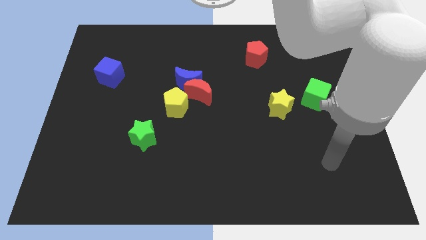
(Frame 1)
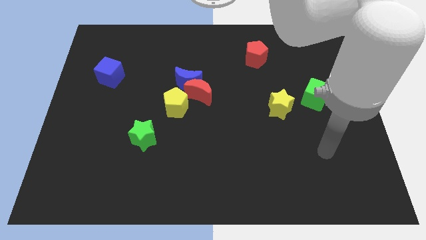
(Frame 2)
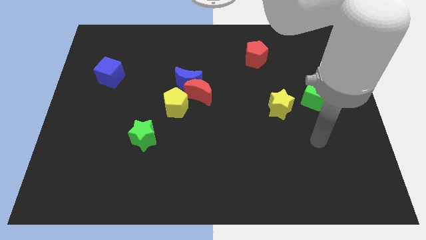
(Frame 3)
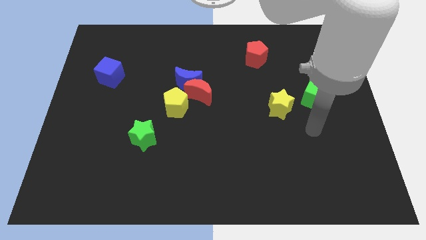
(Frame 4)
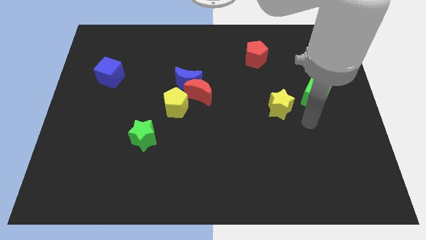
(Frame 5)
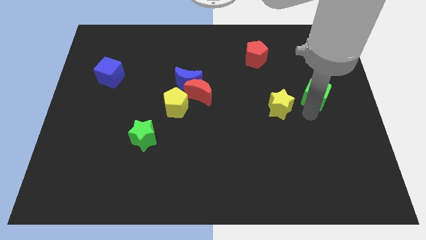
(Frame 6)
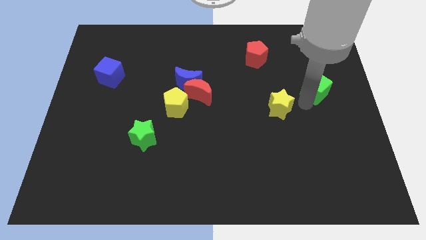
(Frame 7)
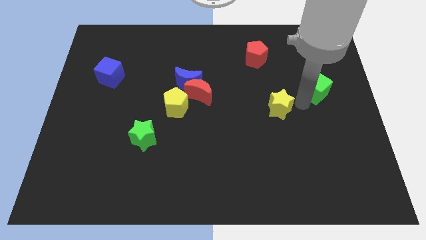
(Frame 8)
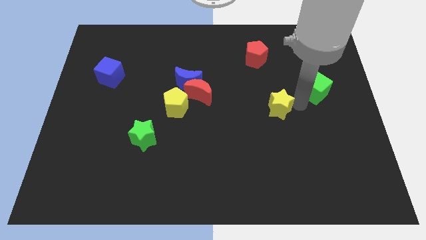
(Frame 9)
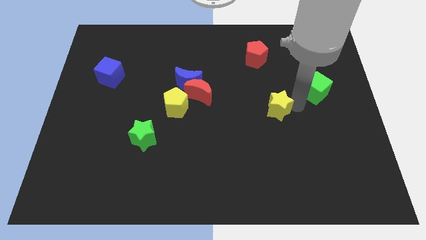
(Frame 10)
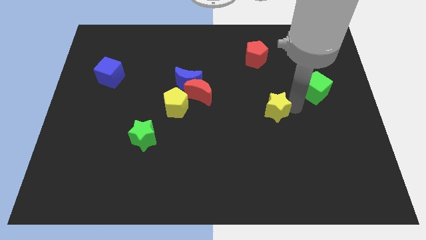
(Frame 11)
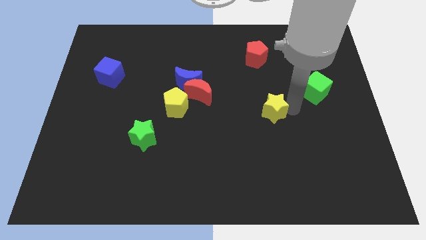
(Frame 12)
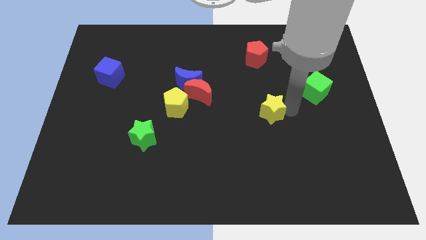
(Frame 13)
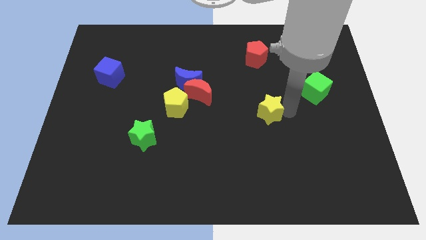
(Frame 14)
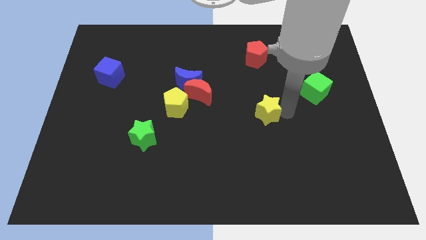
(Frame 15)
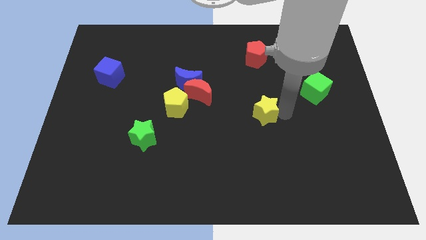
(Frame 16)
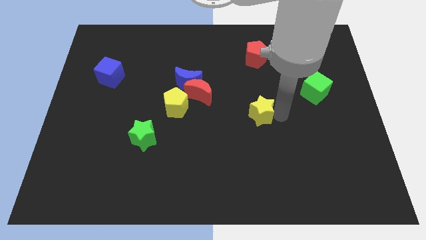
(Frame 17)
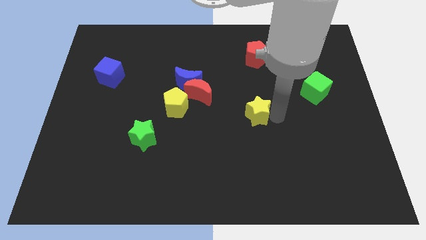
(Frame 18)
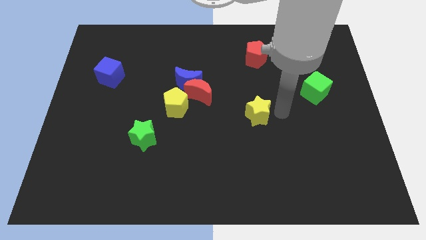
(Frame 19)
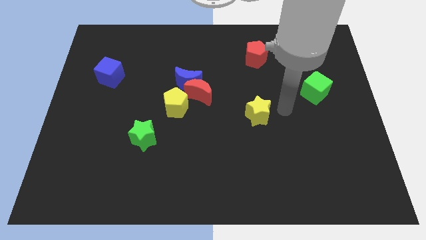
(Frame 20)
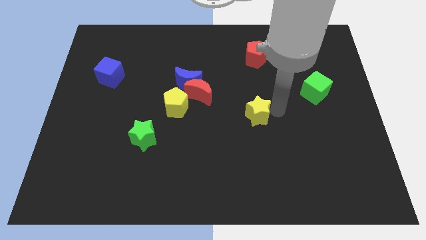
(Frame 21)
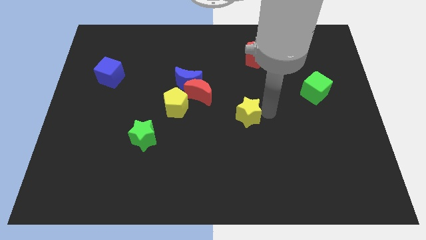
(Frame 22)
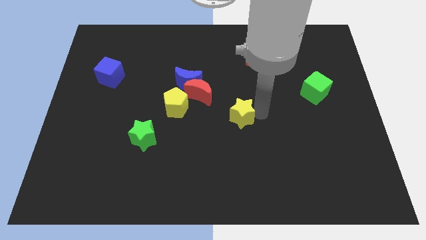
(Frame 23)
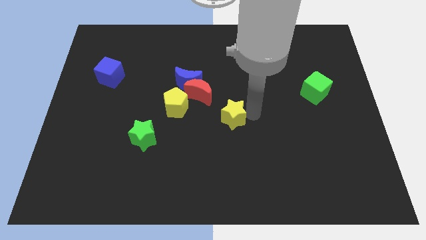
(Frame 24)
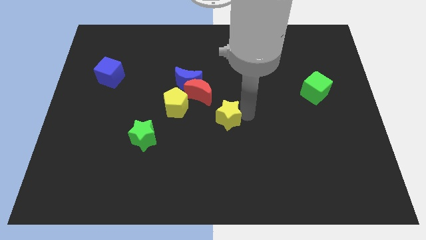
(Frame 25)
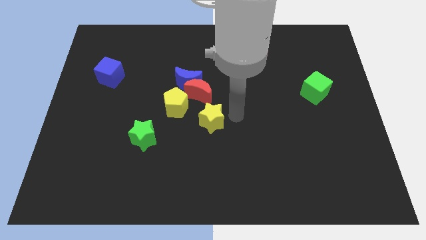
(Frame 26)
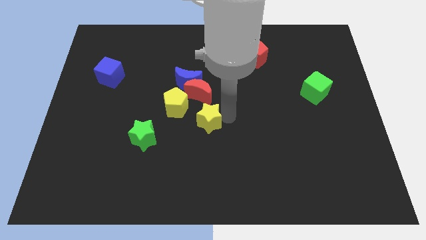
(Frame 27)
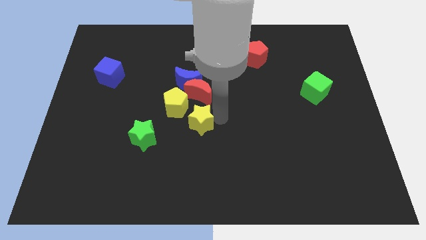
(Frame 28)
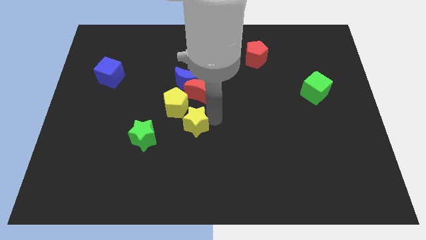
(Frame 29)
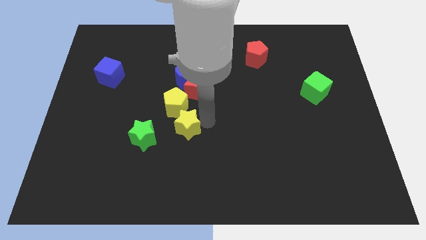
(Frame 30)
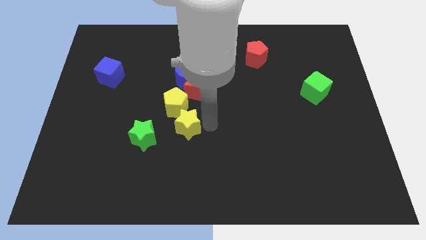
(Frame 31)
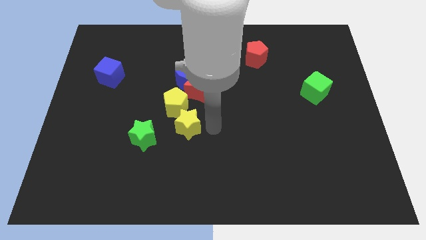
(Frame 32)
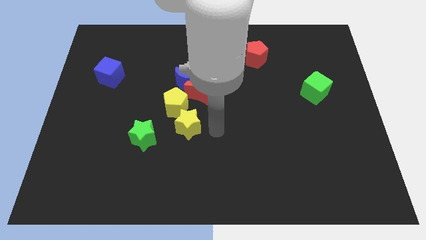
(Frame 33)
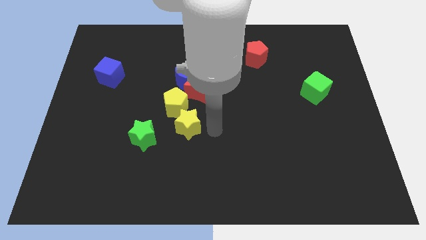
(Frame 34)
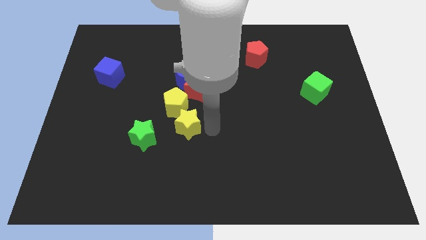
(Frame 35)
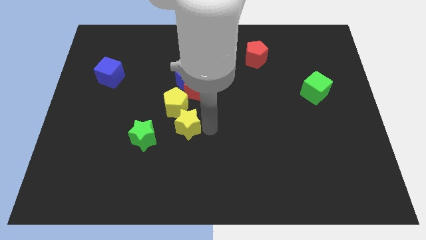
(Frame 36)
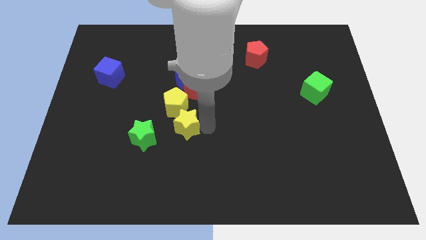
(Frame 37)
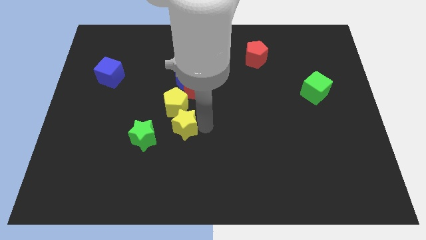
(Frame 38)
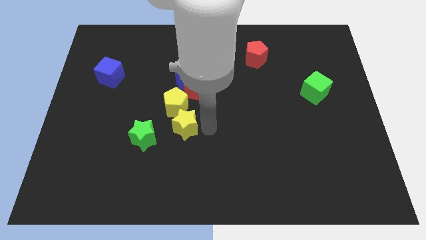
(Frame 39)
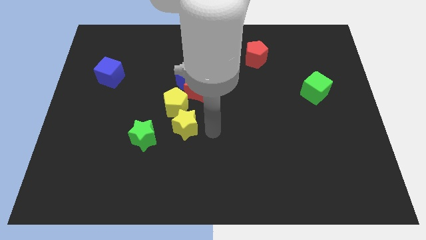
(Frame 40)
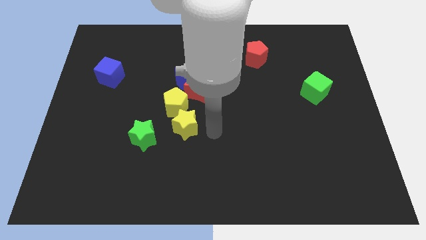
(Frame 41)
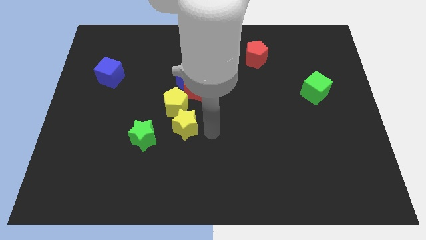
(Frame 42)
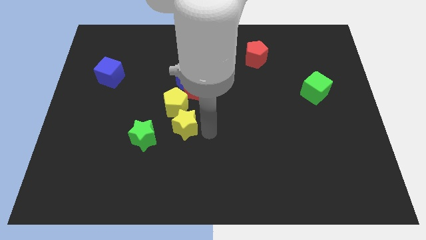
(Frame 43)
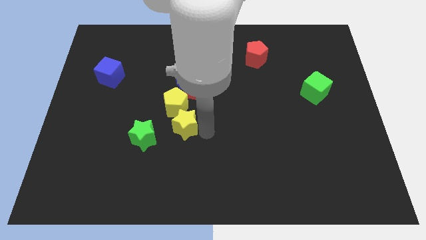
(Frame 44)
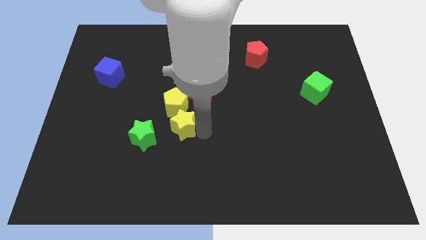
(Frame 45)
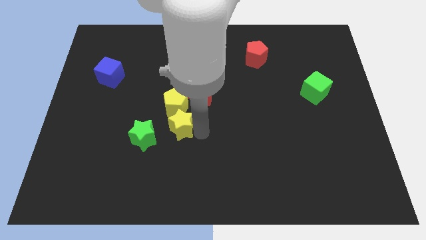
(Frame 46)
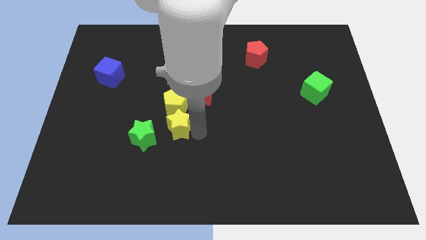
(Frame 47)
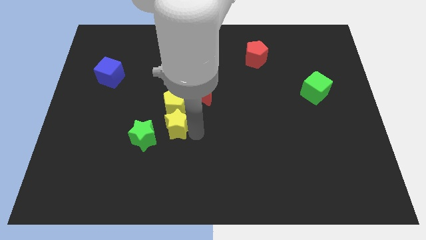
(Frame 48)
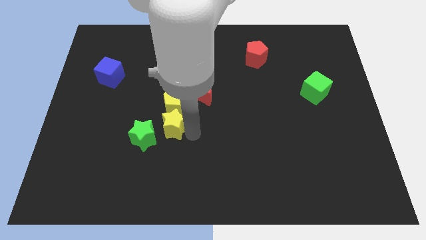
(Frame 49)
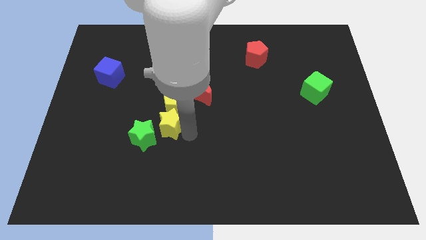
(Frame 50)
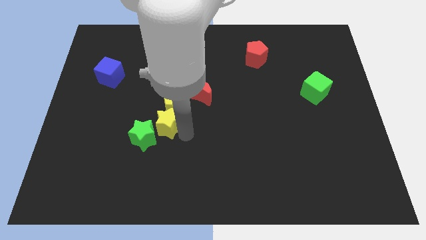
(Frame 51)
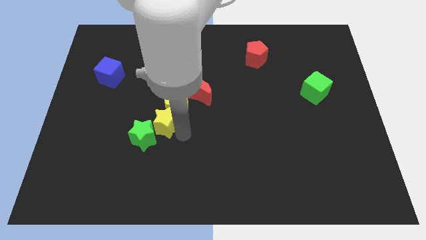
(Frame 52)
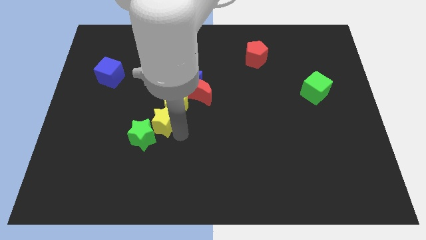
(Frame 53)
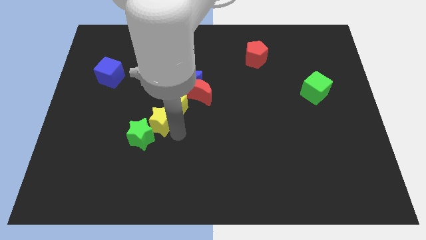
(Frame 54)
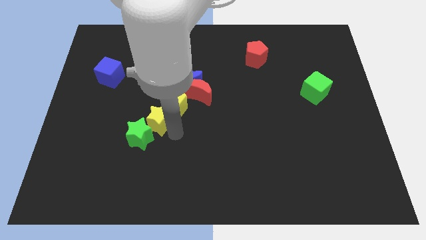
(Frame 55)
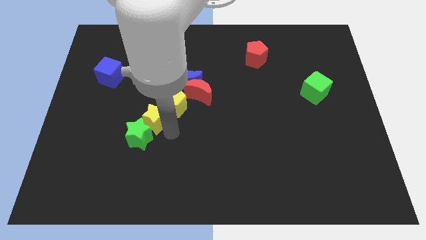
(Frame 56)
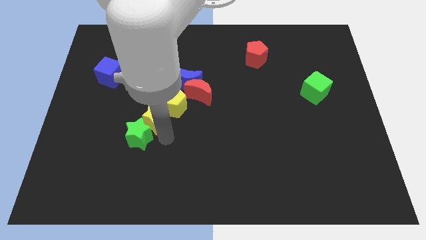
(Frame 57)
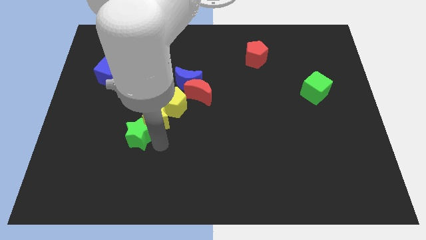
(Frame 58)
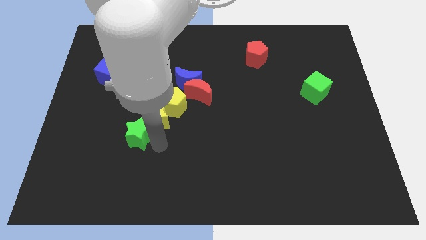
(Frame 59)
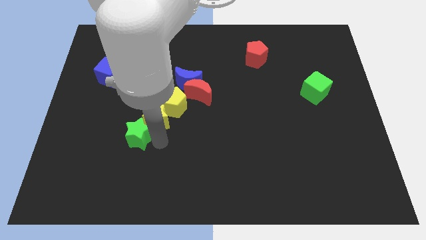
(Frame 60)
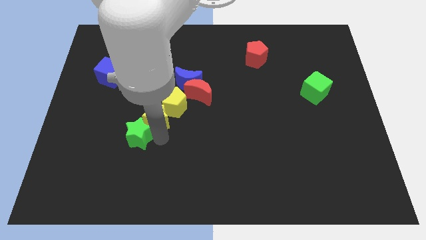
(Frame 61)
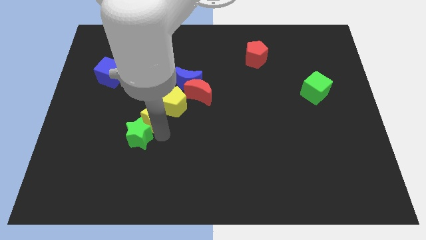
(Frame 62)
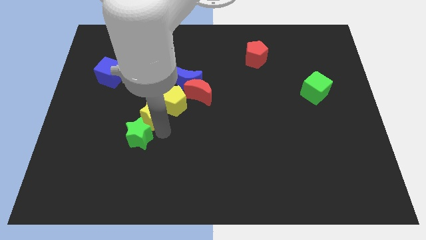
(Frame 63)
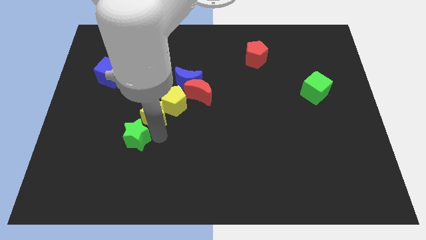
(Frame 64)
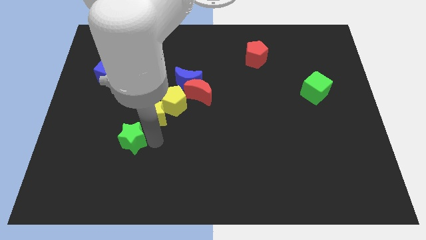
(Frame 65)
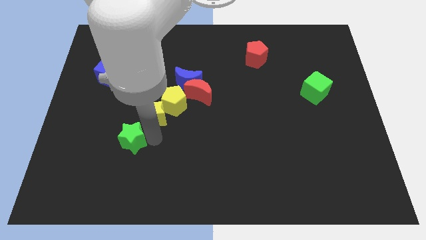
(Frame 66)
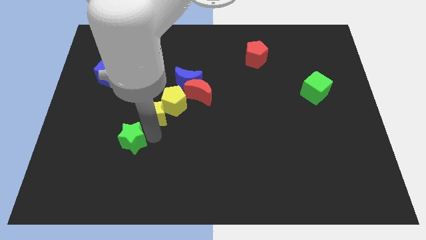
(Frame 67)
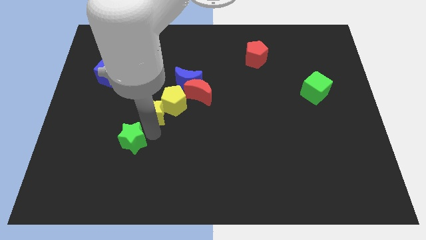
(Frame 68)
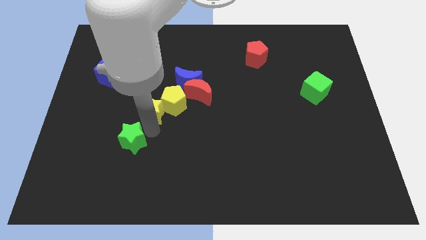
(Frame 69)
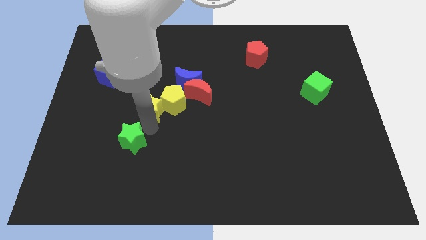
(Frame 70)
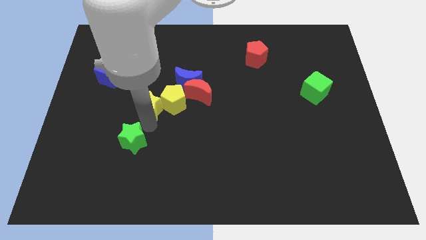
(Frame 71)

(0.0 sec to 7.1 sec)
put the yellow star to the left side of the red moon
